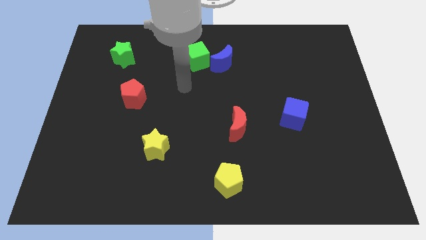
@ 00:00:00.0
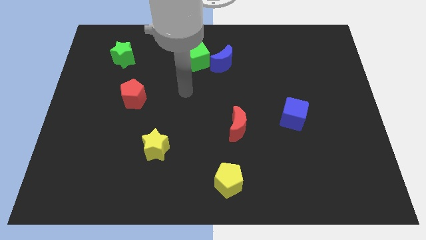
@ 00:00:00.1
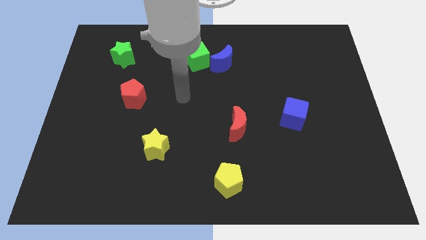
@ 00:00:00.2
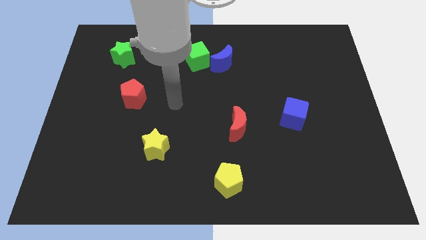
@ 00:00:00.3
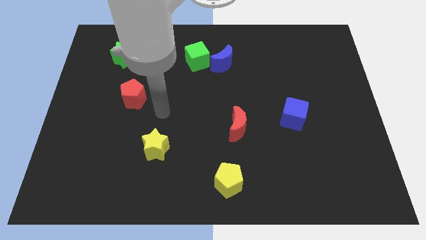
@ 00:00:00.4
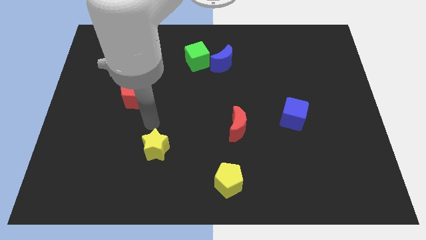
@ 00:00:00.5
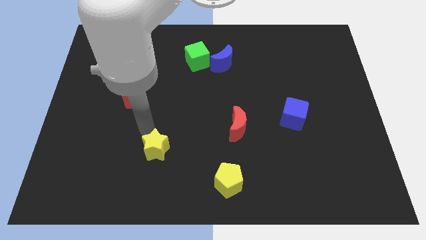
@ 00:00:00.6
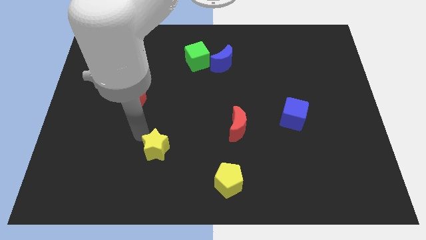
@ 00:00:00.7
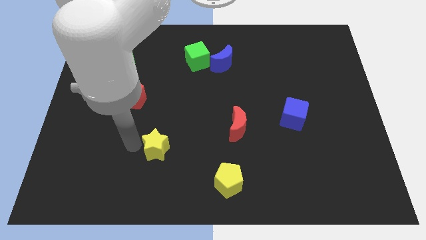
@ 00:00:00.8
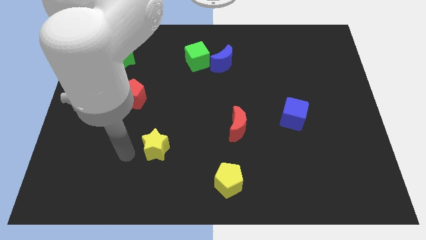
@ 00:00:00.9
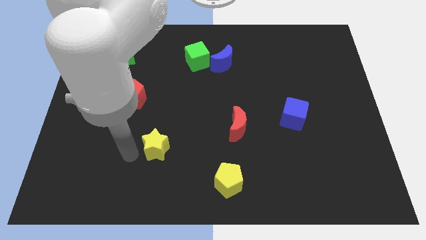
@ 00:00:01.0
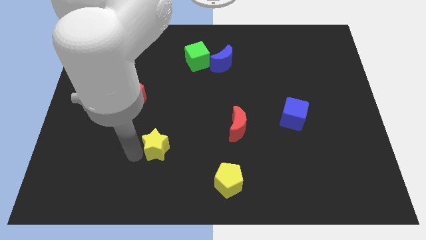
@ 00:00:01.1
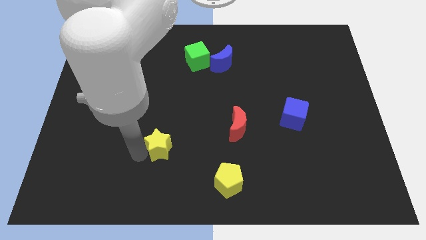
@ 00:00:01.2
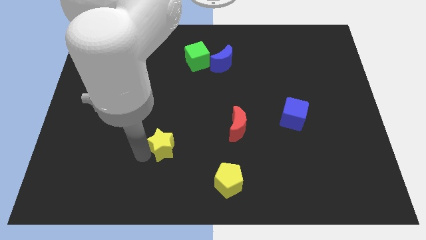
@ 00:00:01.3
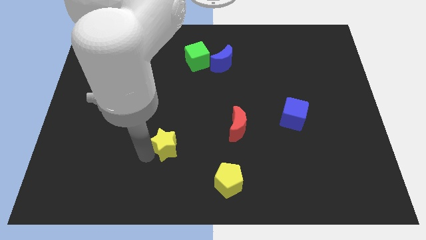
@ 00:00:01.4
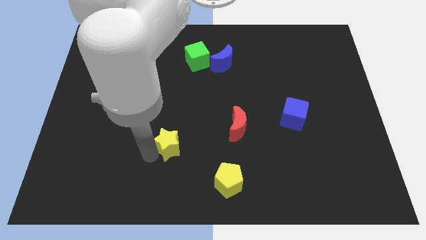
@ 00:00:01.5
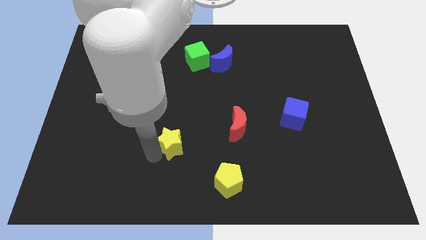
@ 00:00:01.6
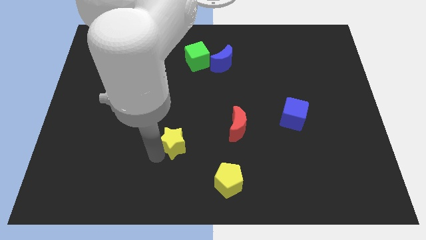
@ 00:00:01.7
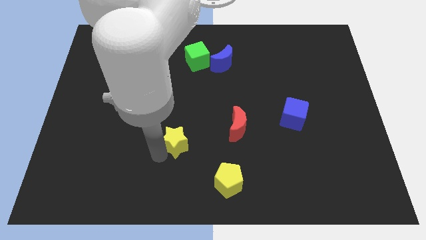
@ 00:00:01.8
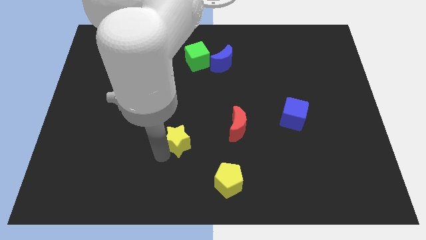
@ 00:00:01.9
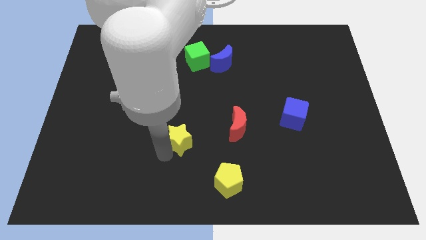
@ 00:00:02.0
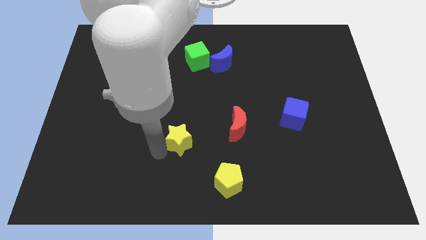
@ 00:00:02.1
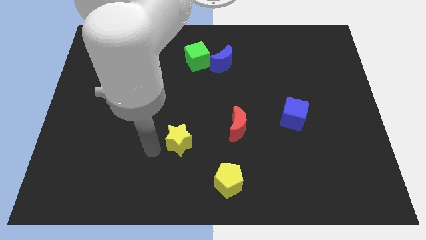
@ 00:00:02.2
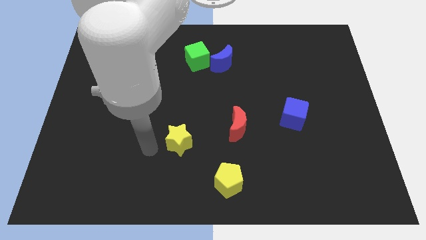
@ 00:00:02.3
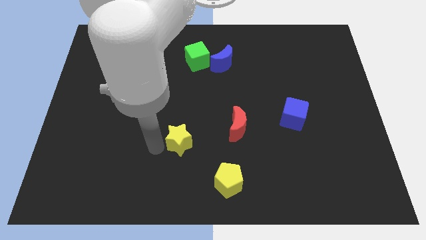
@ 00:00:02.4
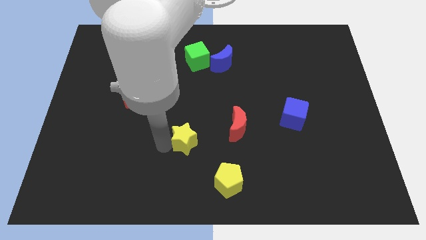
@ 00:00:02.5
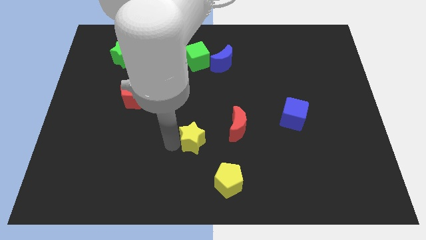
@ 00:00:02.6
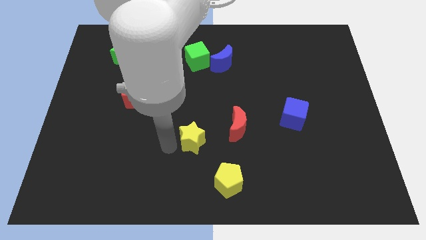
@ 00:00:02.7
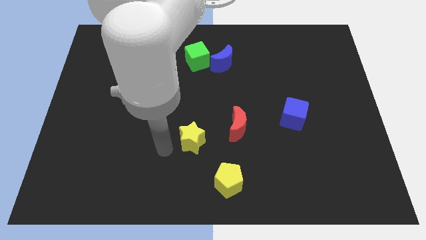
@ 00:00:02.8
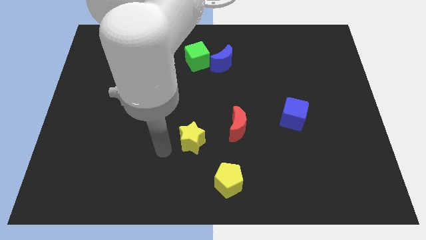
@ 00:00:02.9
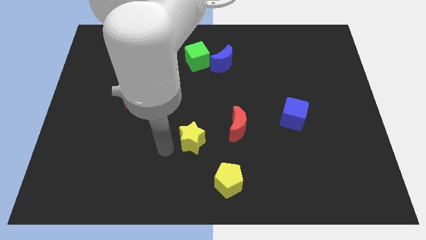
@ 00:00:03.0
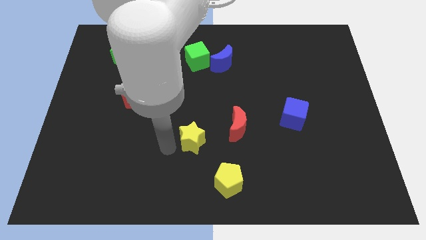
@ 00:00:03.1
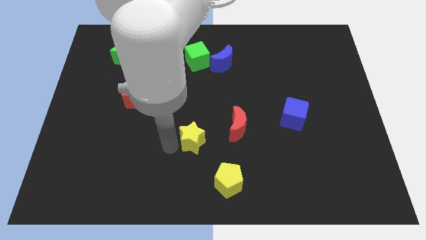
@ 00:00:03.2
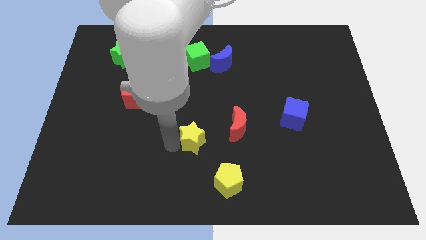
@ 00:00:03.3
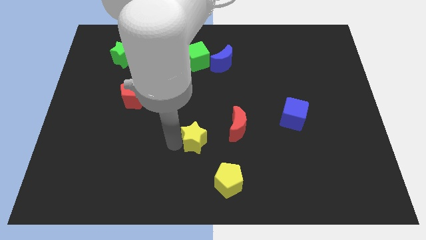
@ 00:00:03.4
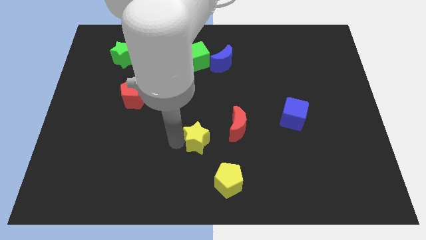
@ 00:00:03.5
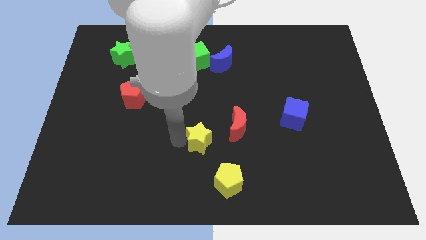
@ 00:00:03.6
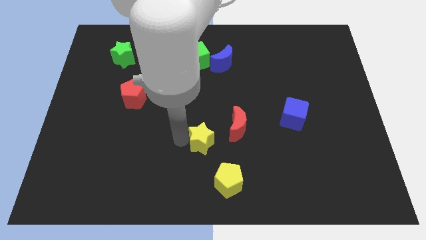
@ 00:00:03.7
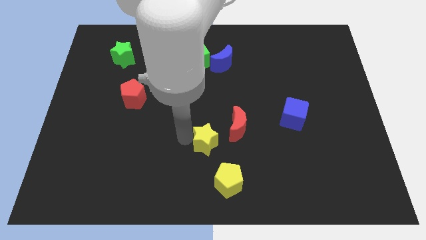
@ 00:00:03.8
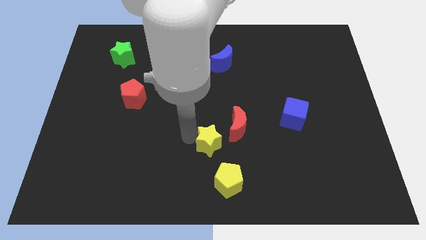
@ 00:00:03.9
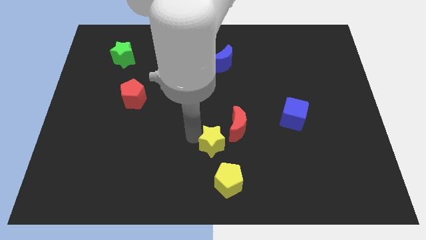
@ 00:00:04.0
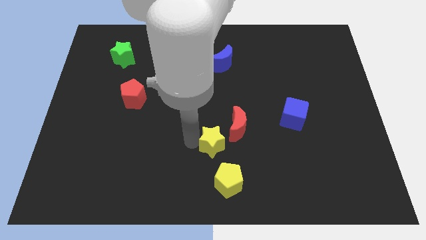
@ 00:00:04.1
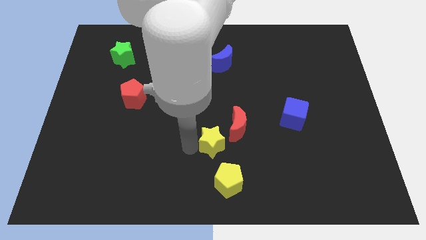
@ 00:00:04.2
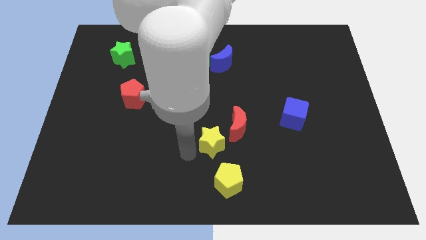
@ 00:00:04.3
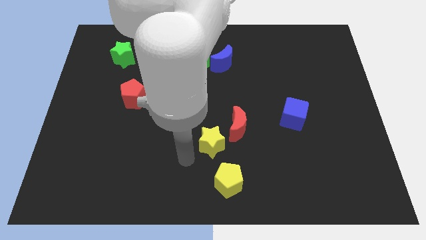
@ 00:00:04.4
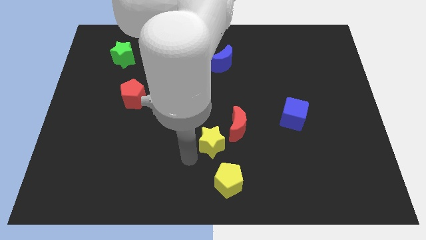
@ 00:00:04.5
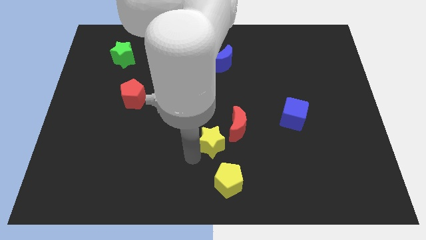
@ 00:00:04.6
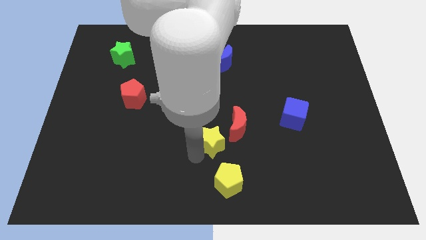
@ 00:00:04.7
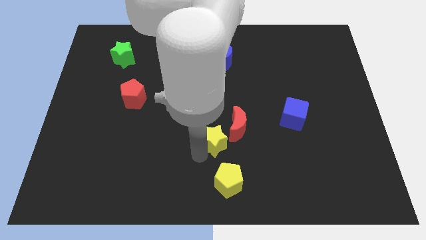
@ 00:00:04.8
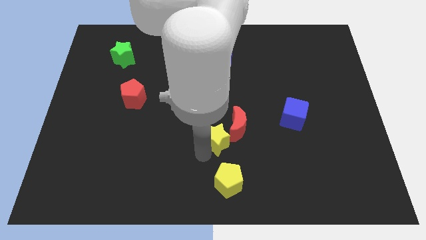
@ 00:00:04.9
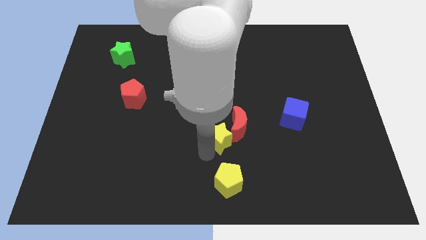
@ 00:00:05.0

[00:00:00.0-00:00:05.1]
put the yellow star next to the red moon

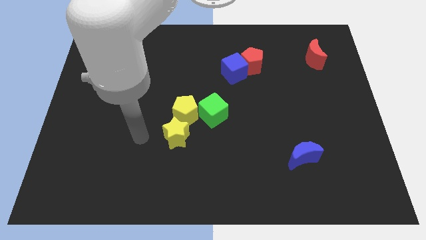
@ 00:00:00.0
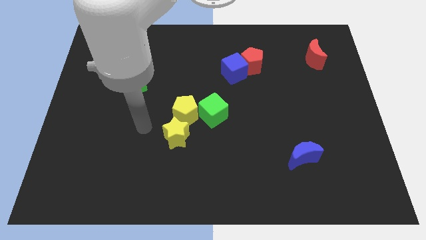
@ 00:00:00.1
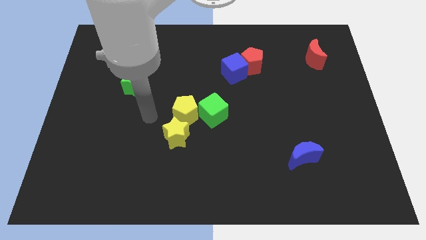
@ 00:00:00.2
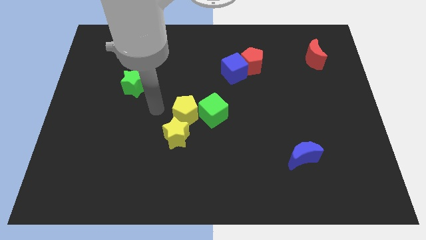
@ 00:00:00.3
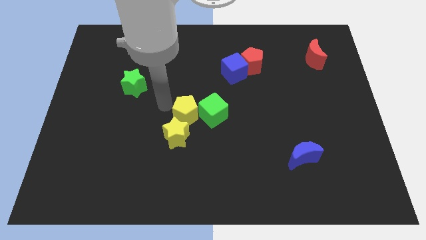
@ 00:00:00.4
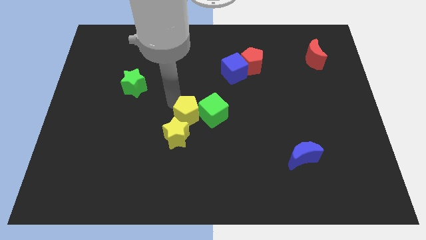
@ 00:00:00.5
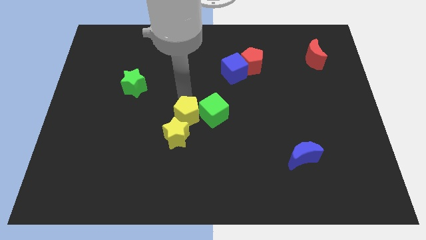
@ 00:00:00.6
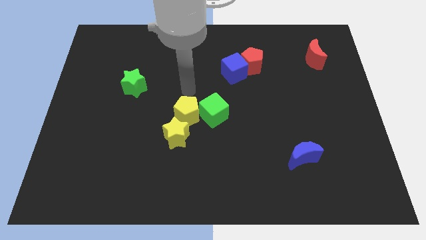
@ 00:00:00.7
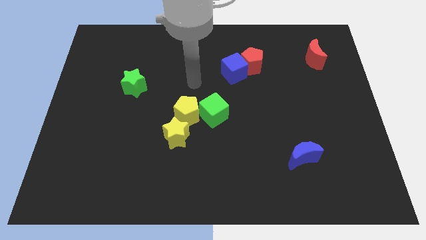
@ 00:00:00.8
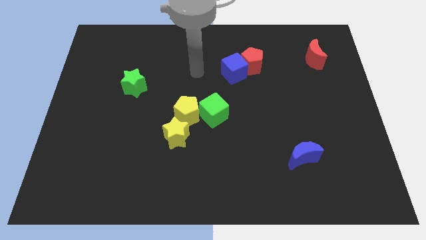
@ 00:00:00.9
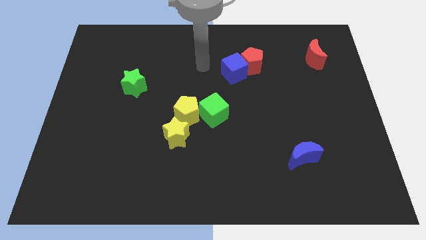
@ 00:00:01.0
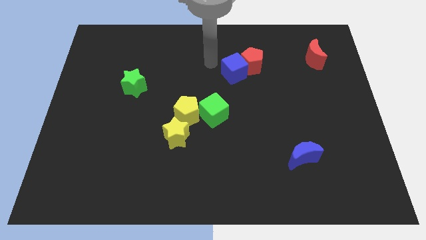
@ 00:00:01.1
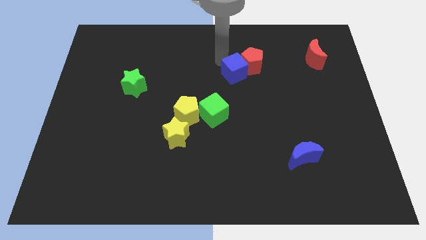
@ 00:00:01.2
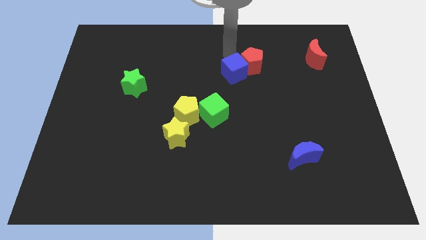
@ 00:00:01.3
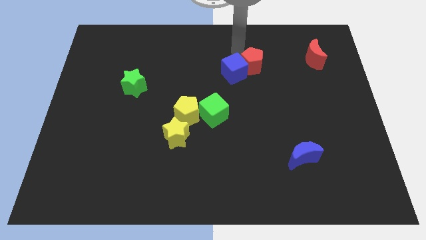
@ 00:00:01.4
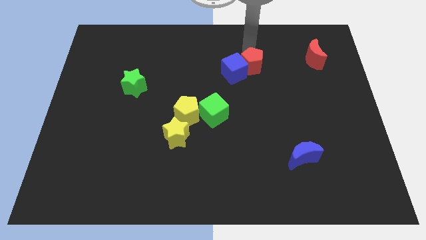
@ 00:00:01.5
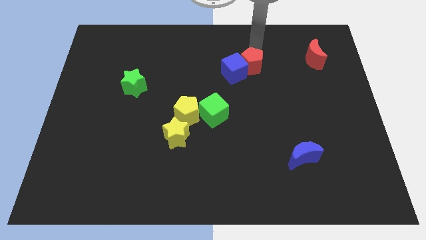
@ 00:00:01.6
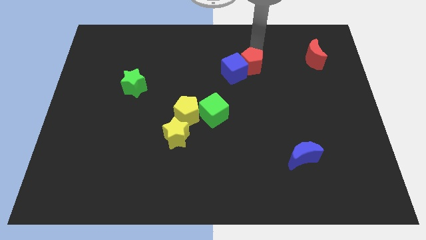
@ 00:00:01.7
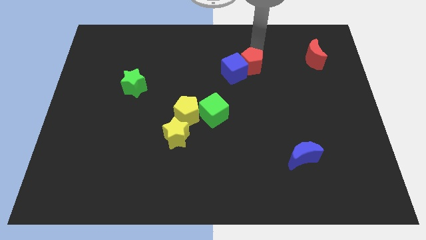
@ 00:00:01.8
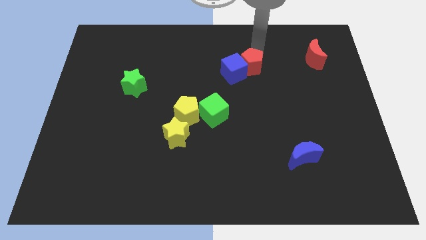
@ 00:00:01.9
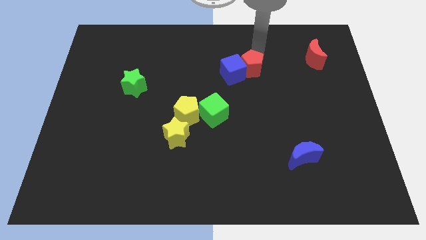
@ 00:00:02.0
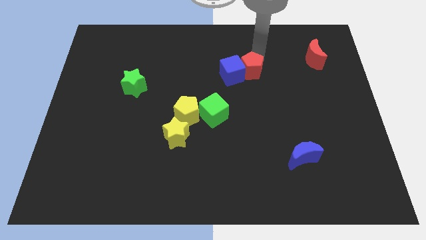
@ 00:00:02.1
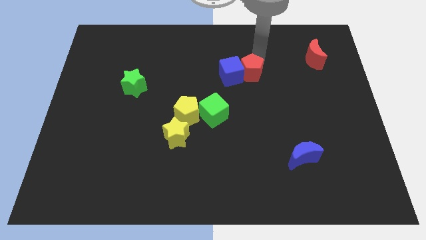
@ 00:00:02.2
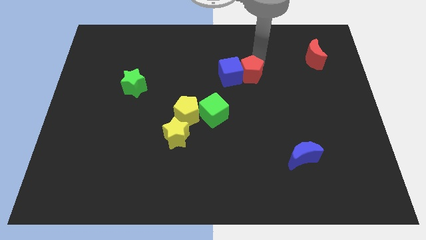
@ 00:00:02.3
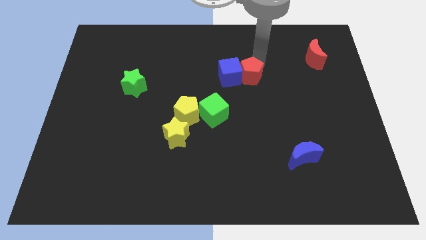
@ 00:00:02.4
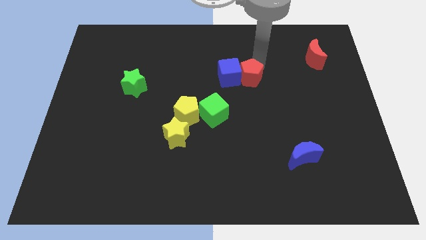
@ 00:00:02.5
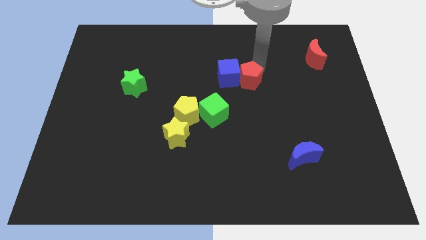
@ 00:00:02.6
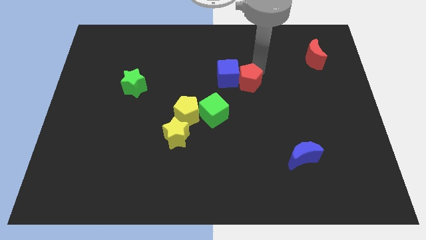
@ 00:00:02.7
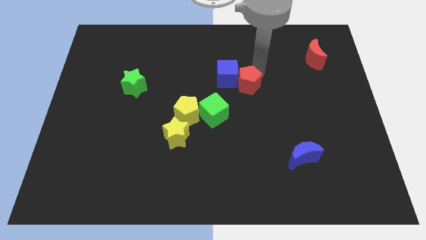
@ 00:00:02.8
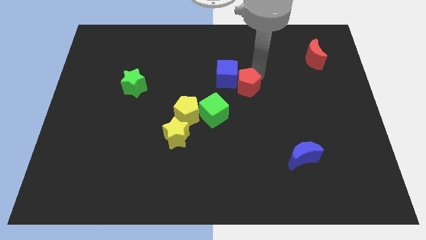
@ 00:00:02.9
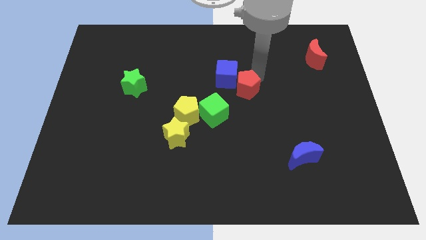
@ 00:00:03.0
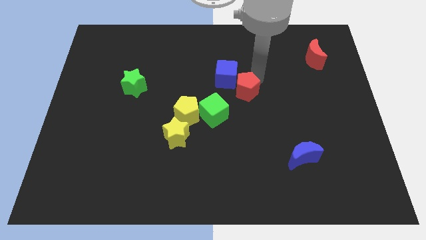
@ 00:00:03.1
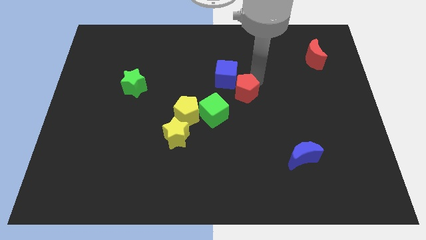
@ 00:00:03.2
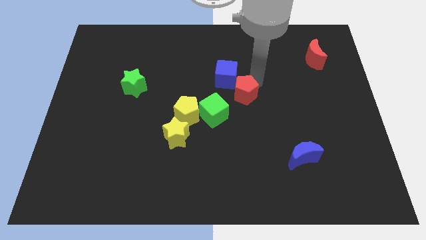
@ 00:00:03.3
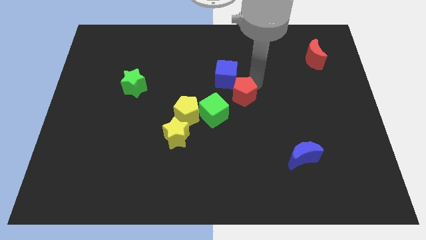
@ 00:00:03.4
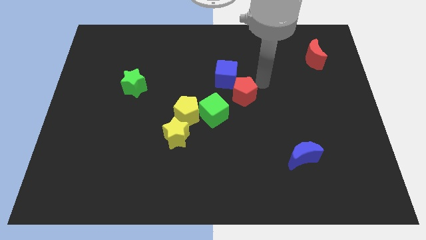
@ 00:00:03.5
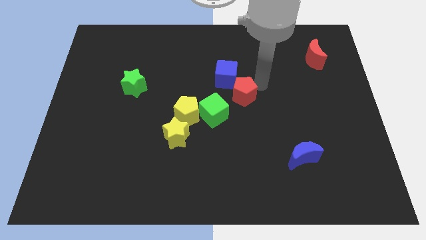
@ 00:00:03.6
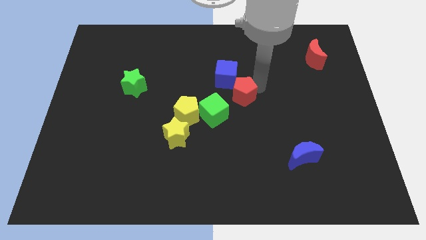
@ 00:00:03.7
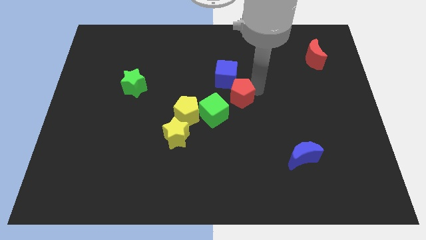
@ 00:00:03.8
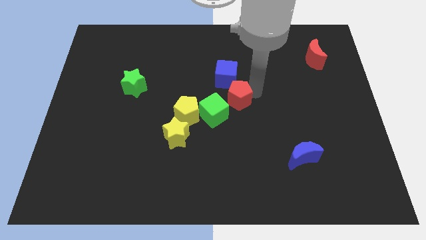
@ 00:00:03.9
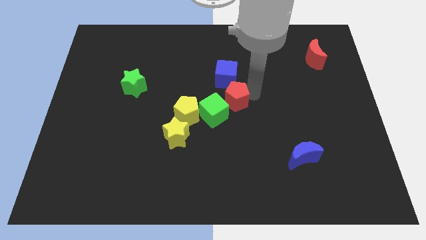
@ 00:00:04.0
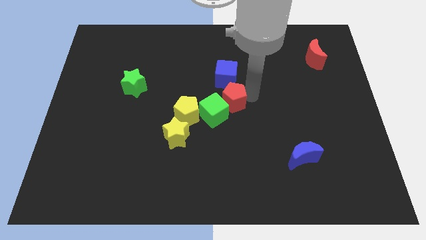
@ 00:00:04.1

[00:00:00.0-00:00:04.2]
put the red pentagon close to the green cube
